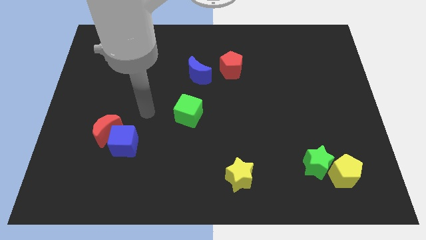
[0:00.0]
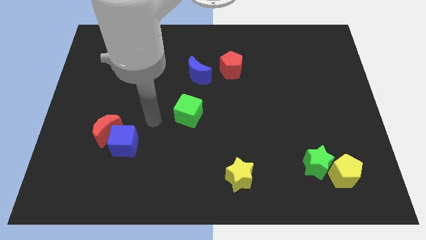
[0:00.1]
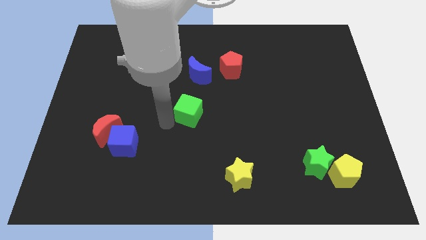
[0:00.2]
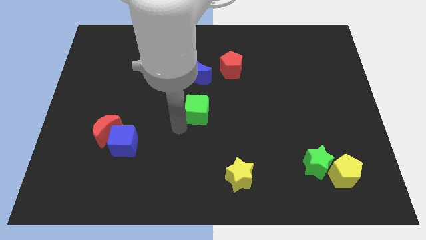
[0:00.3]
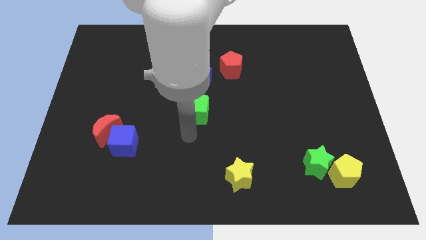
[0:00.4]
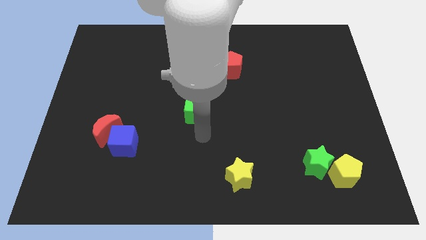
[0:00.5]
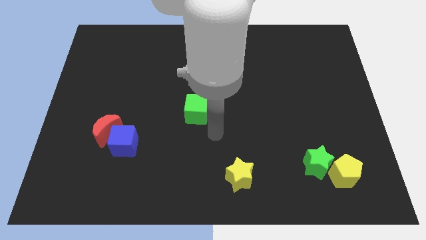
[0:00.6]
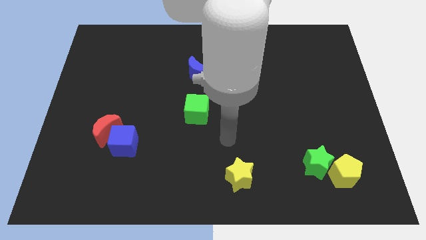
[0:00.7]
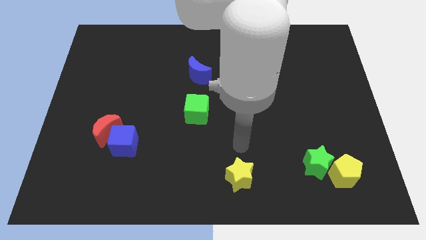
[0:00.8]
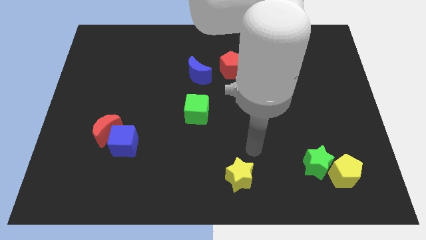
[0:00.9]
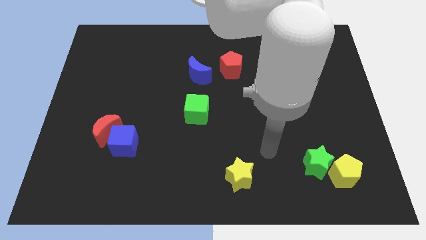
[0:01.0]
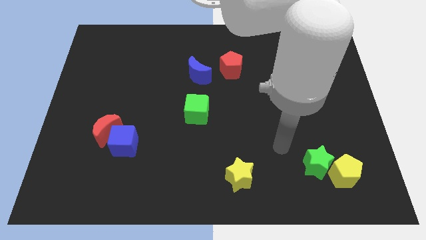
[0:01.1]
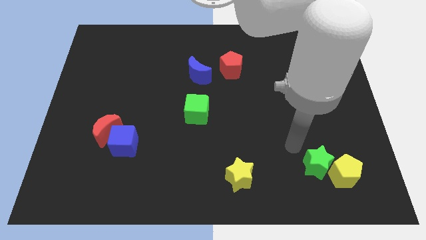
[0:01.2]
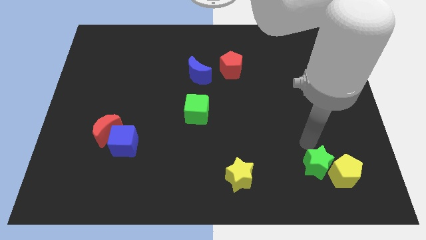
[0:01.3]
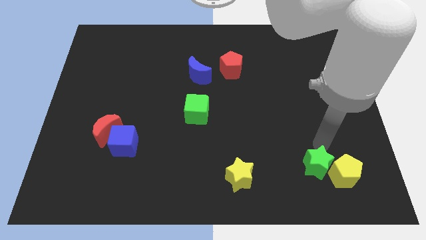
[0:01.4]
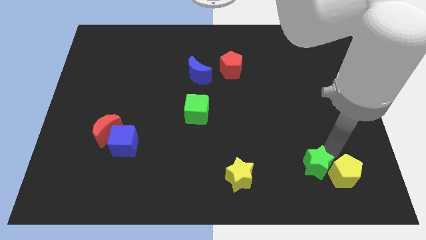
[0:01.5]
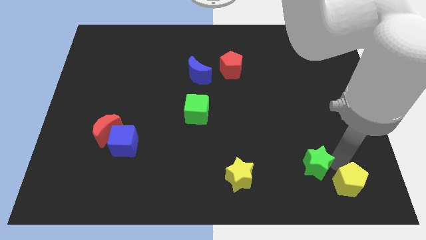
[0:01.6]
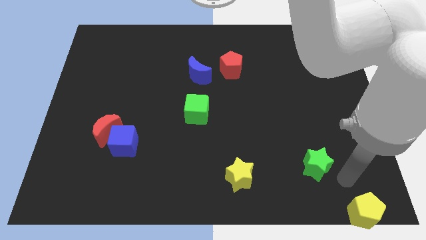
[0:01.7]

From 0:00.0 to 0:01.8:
pull the green star apart from the yellow pentagon

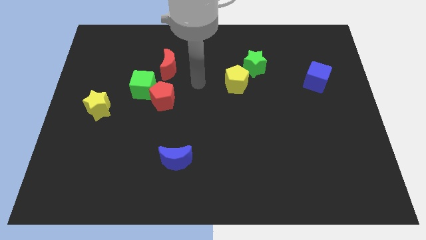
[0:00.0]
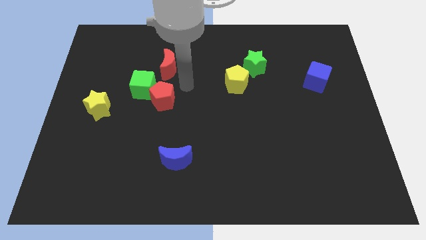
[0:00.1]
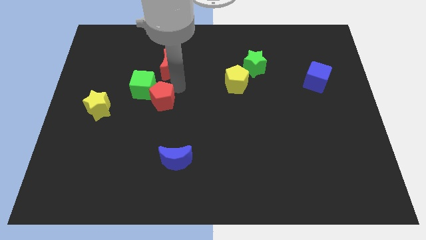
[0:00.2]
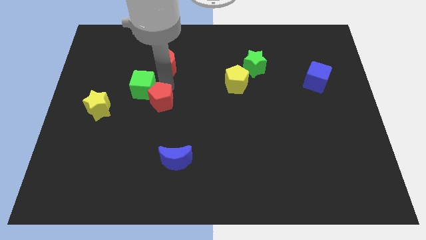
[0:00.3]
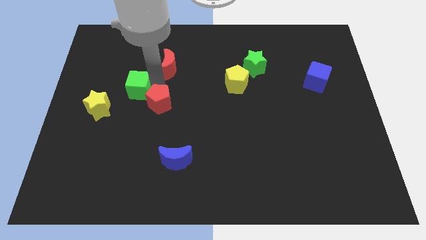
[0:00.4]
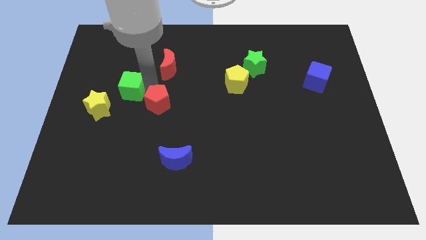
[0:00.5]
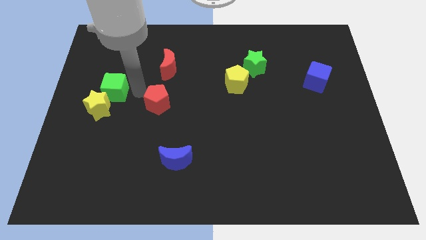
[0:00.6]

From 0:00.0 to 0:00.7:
separate the red pentagon from the green cube

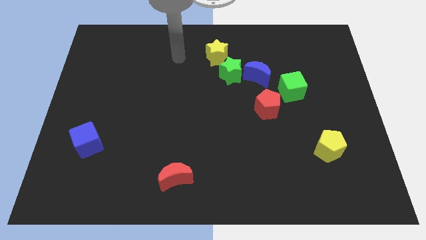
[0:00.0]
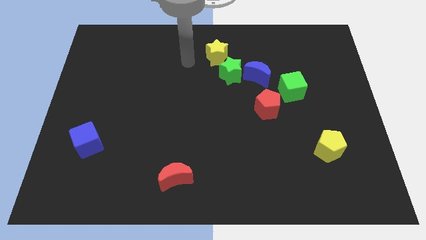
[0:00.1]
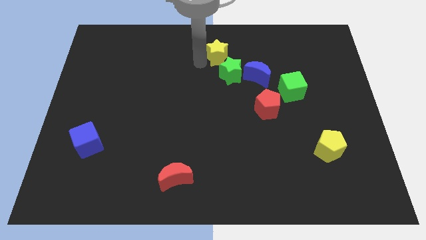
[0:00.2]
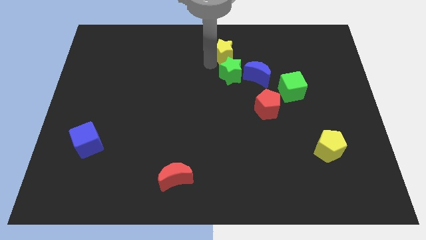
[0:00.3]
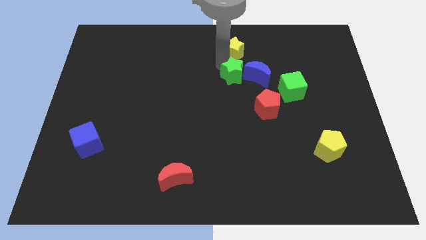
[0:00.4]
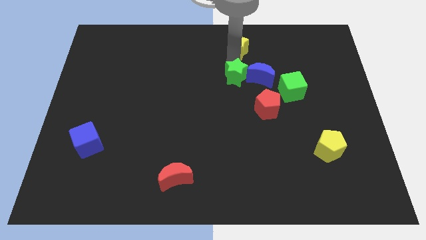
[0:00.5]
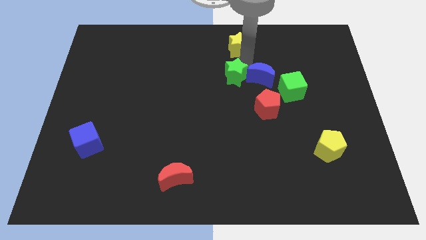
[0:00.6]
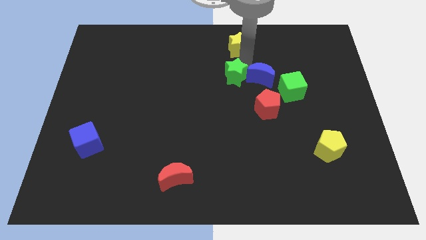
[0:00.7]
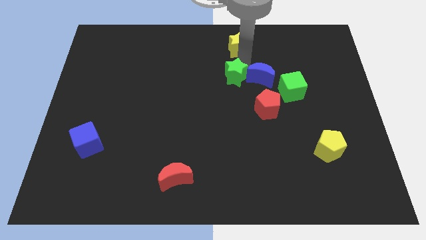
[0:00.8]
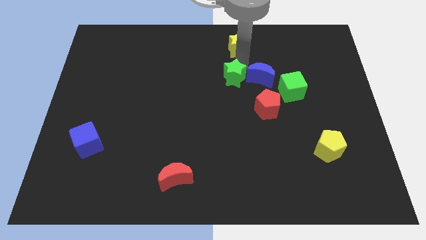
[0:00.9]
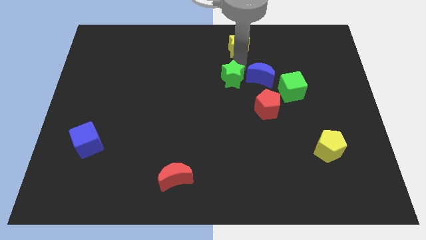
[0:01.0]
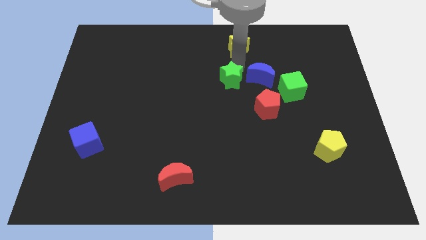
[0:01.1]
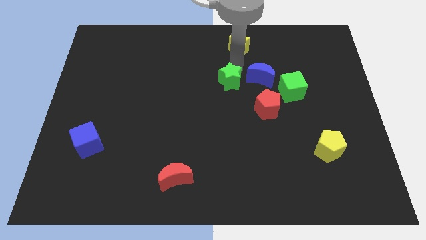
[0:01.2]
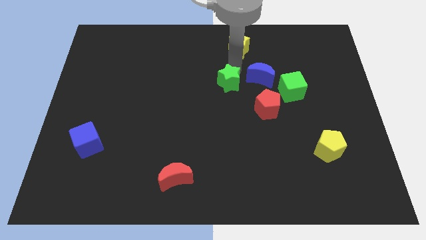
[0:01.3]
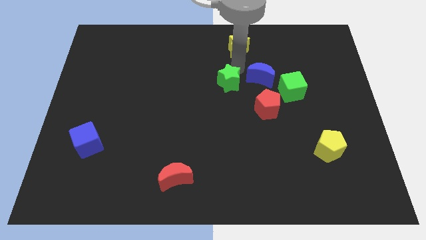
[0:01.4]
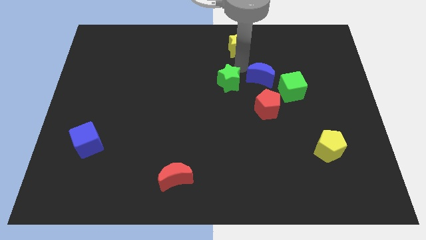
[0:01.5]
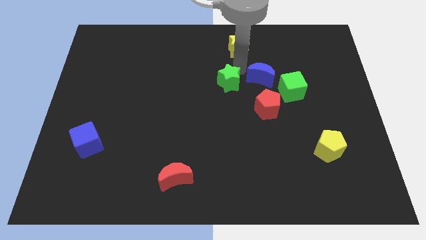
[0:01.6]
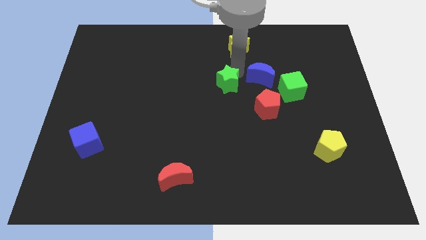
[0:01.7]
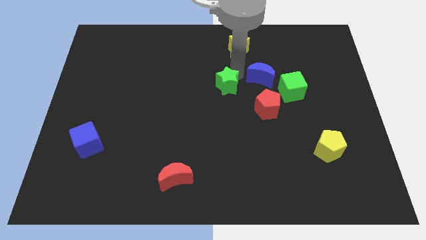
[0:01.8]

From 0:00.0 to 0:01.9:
separate the green star from the blue moon and yellow star

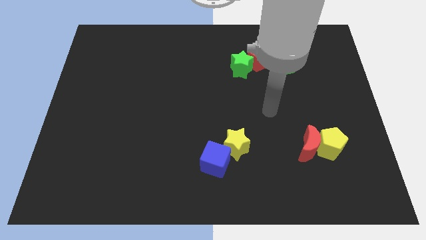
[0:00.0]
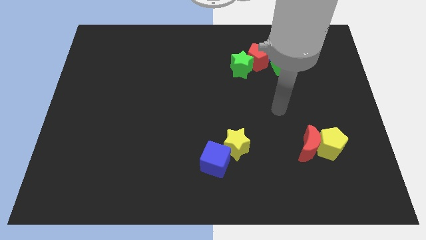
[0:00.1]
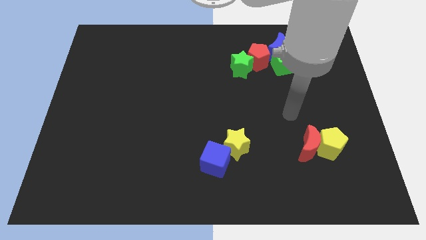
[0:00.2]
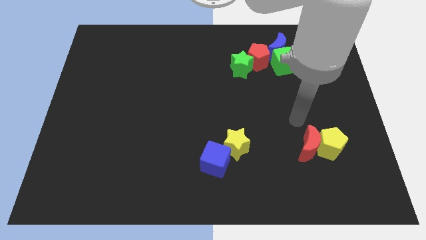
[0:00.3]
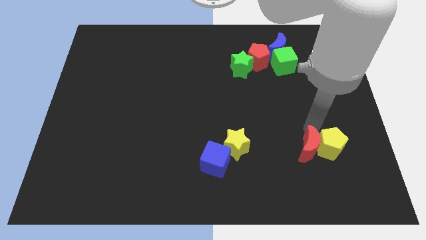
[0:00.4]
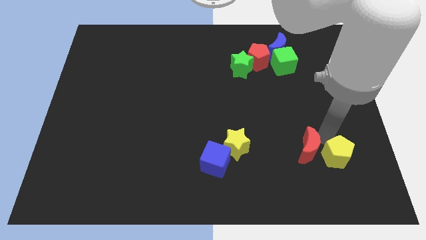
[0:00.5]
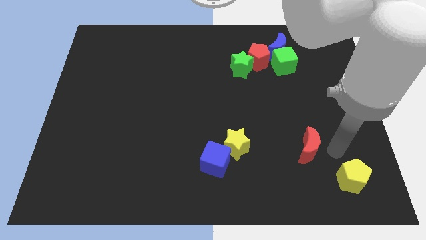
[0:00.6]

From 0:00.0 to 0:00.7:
separate the red moon from the yellow pentagon

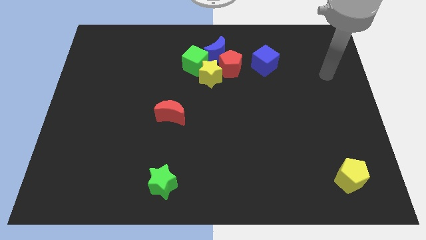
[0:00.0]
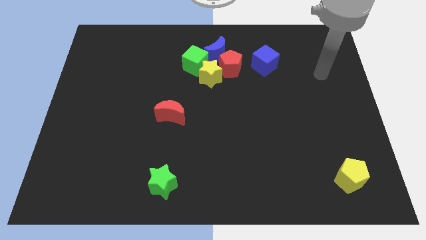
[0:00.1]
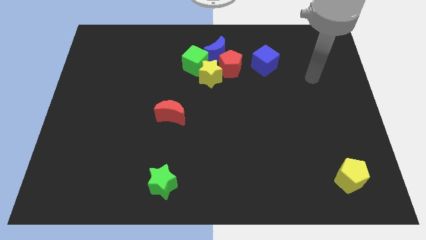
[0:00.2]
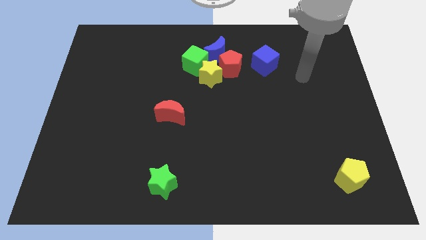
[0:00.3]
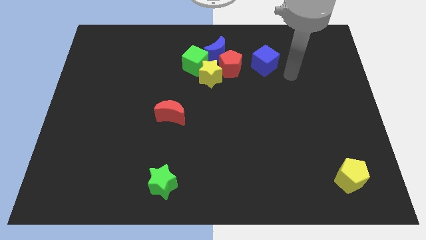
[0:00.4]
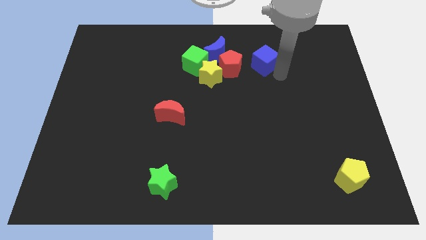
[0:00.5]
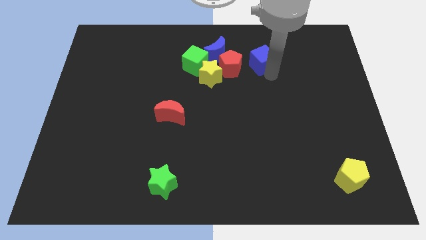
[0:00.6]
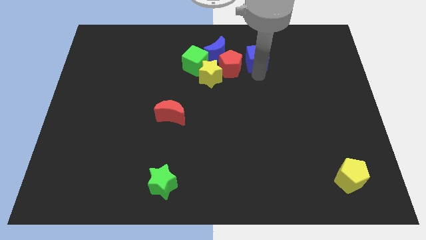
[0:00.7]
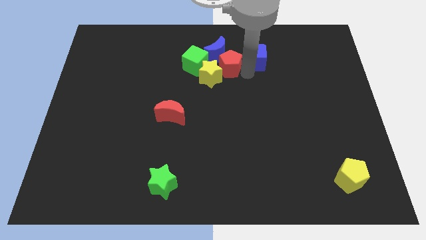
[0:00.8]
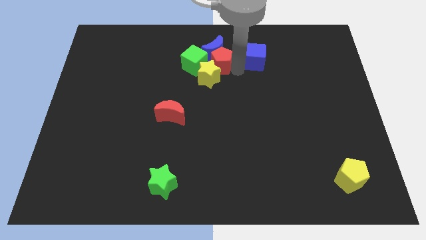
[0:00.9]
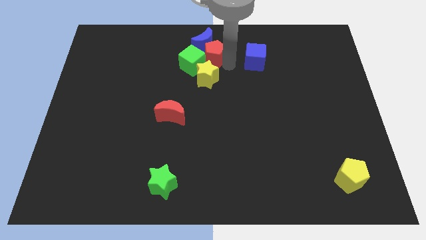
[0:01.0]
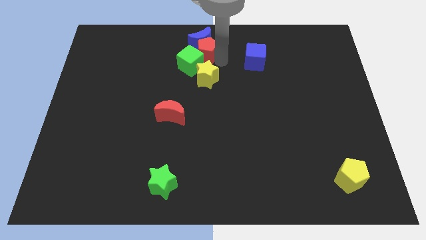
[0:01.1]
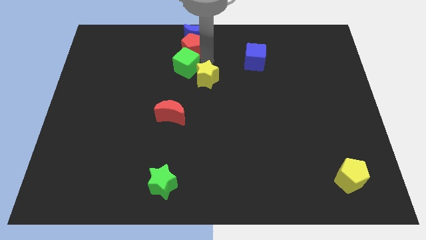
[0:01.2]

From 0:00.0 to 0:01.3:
separate the yellow star from the green cube, red pentagon, and blue moon

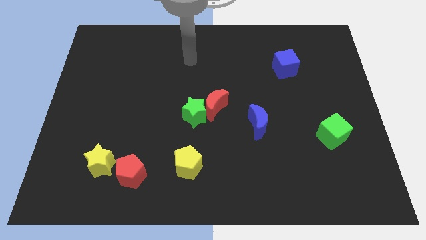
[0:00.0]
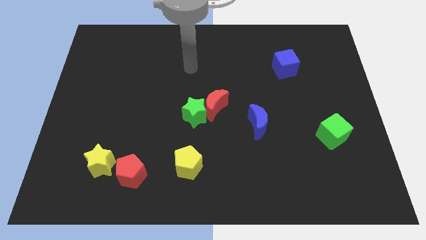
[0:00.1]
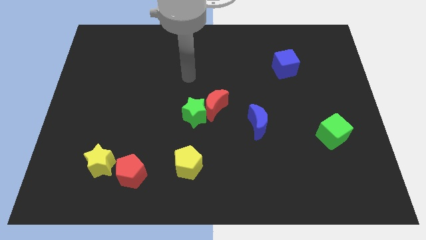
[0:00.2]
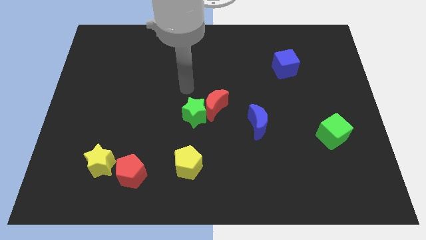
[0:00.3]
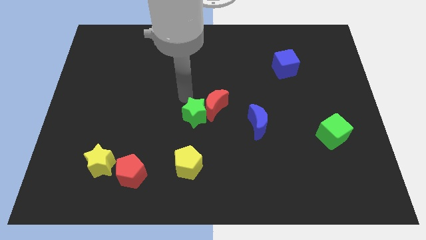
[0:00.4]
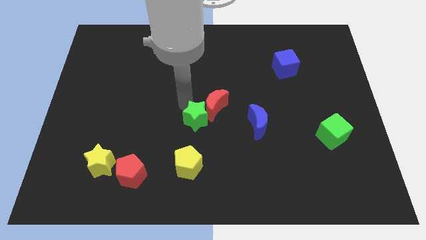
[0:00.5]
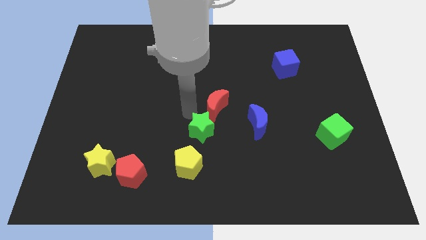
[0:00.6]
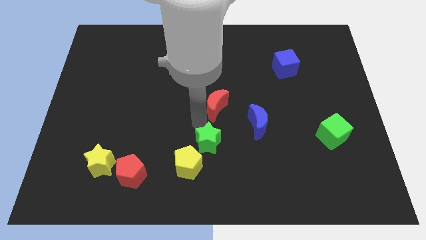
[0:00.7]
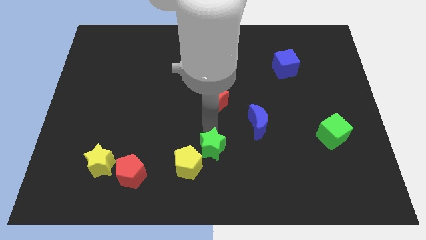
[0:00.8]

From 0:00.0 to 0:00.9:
move the red moon away from the green star

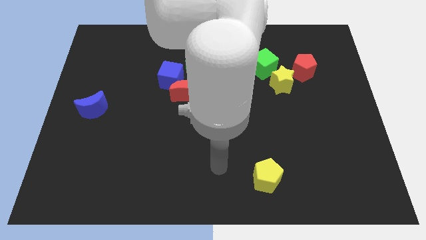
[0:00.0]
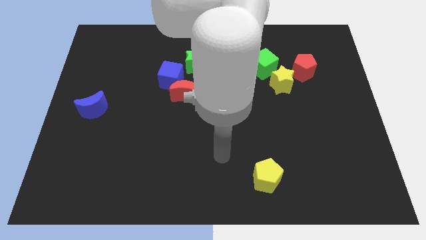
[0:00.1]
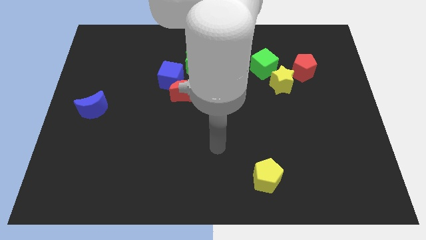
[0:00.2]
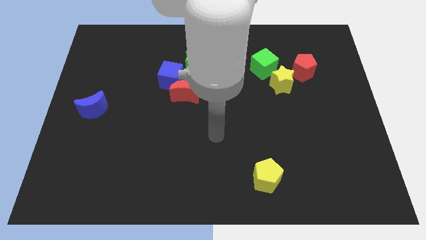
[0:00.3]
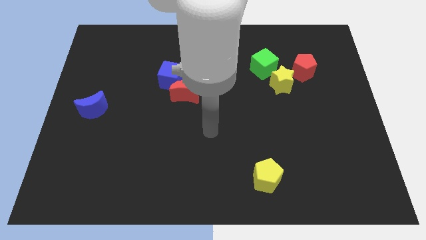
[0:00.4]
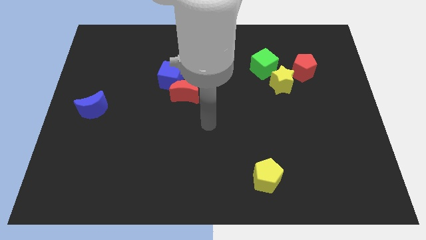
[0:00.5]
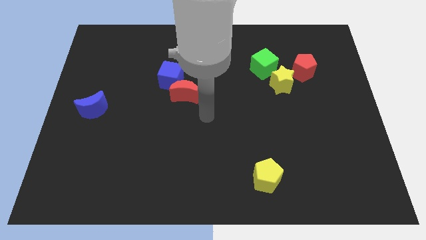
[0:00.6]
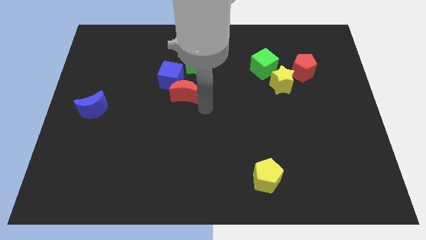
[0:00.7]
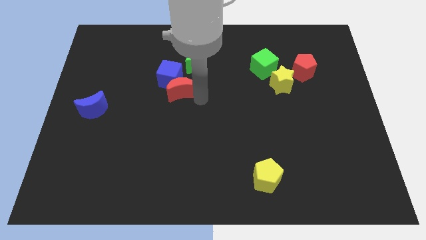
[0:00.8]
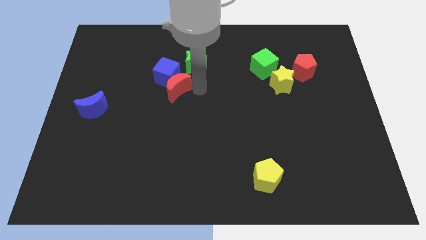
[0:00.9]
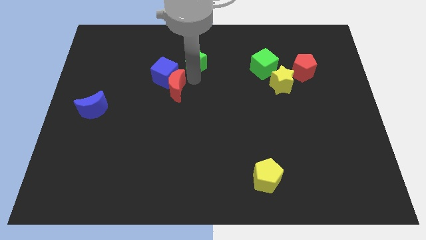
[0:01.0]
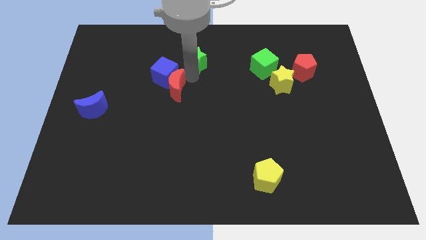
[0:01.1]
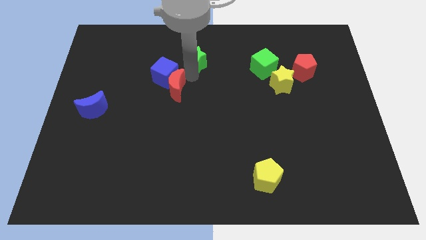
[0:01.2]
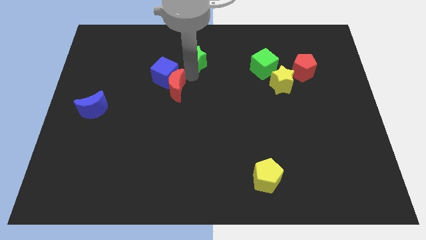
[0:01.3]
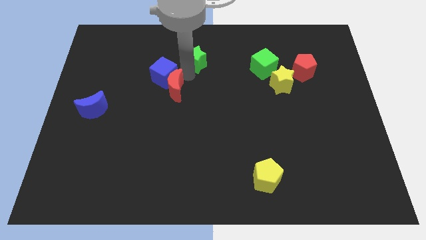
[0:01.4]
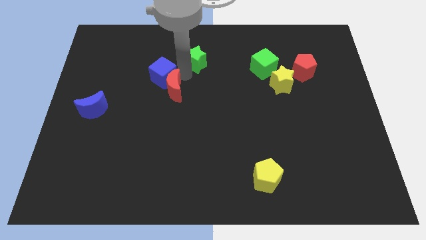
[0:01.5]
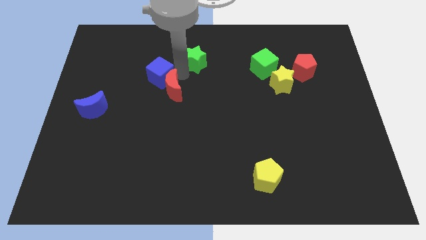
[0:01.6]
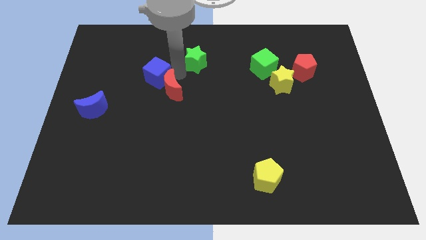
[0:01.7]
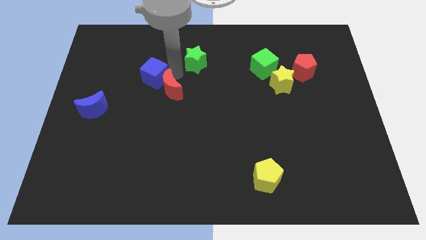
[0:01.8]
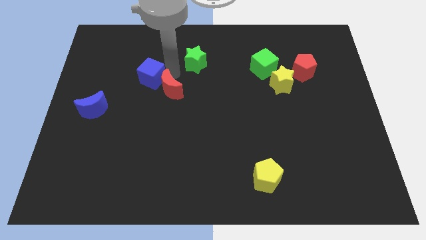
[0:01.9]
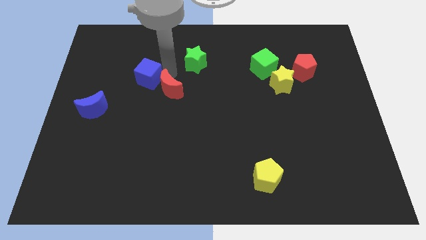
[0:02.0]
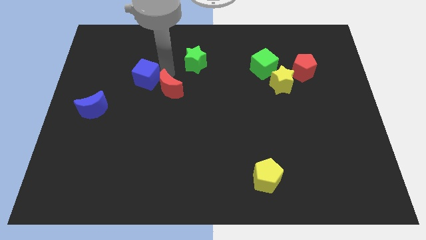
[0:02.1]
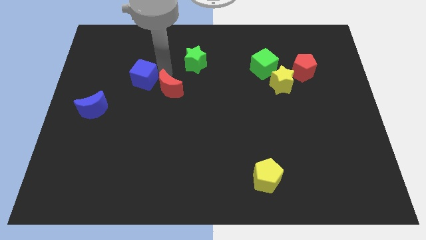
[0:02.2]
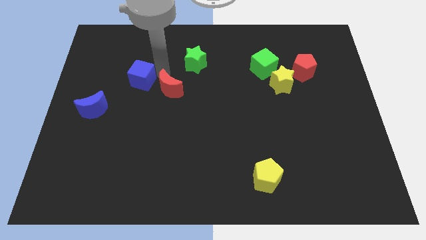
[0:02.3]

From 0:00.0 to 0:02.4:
pull the blue cube apart from the red moon and green star
